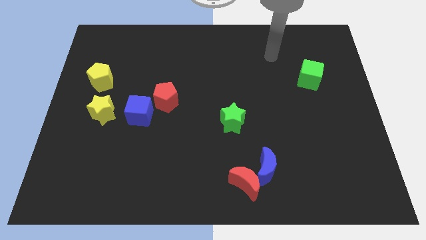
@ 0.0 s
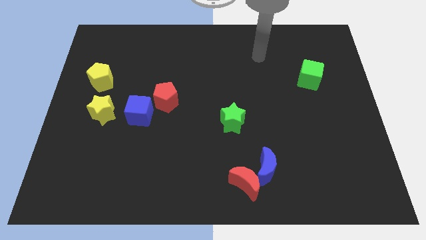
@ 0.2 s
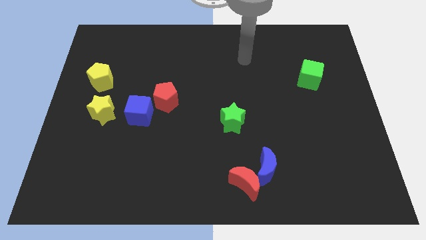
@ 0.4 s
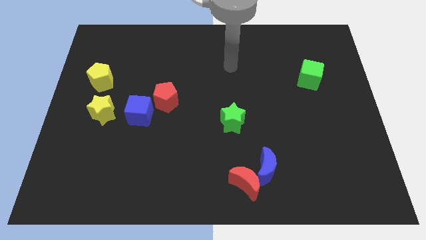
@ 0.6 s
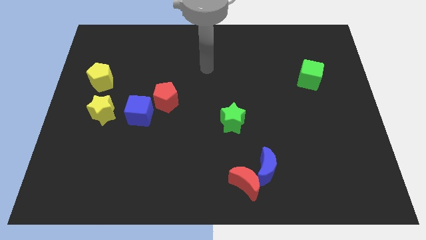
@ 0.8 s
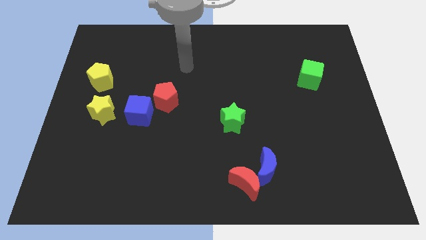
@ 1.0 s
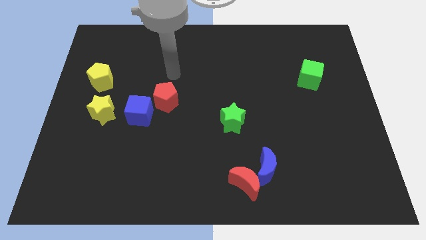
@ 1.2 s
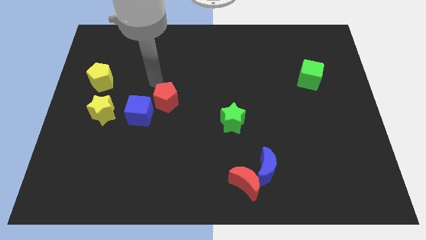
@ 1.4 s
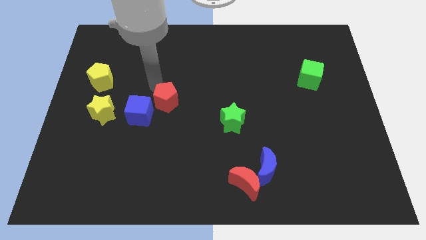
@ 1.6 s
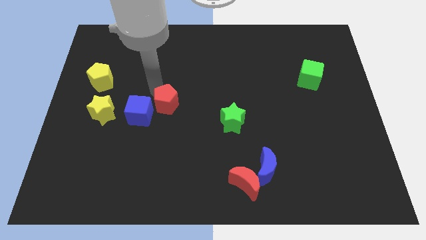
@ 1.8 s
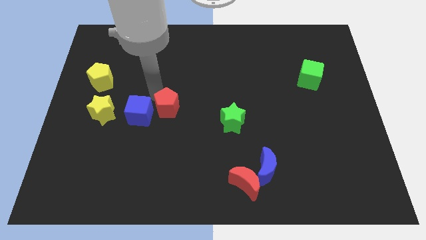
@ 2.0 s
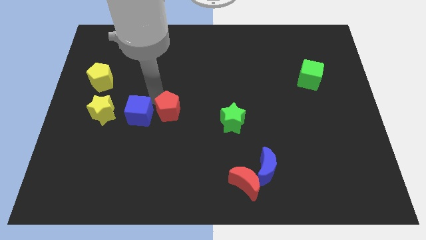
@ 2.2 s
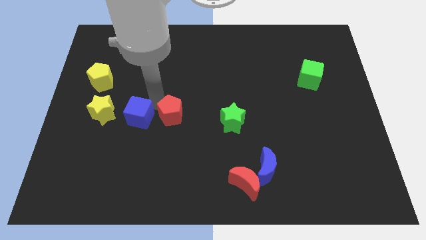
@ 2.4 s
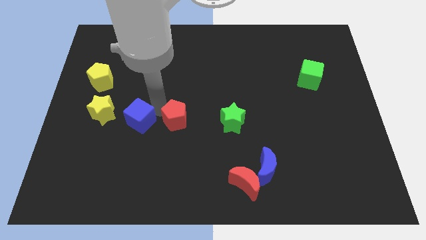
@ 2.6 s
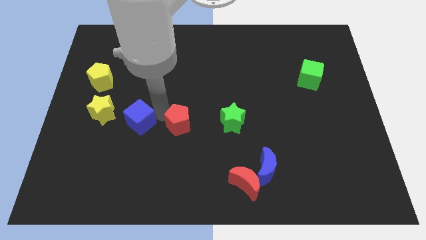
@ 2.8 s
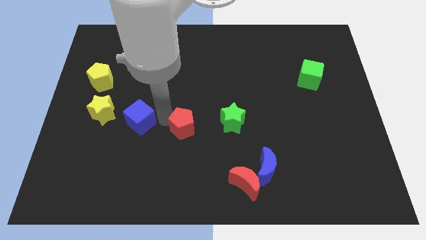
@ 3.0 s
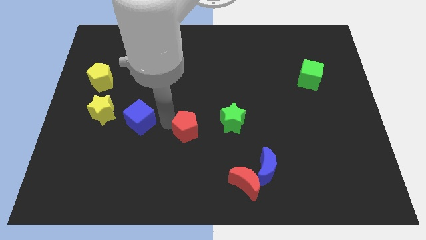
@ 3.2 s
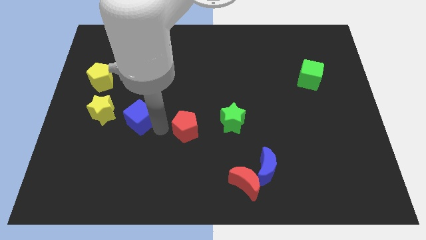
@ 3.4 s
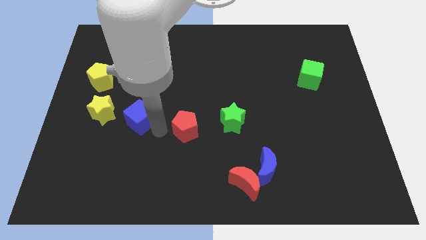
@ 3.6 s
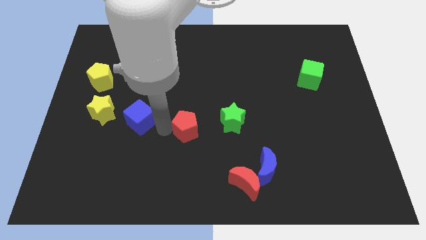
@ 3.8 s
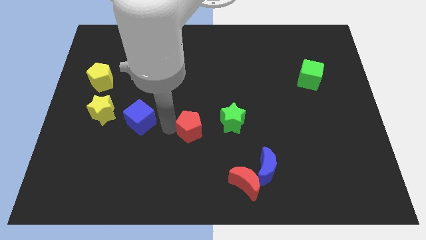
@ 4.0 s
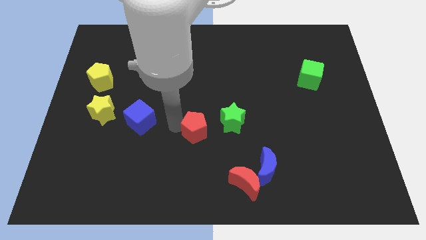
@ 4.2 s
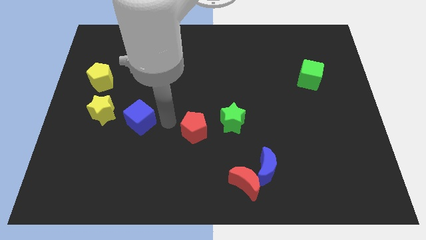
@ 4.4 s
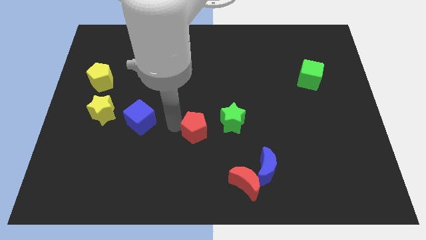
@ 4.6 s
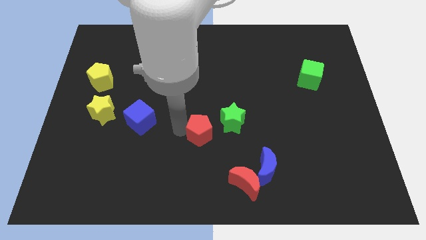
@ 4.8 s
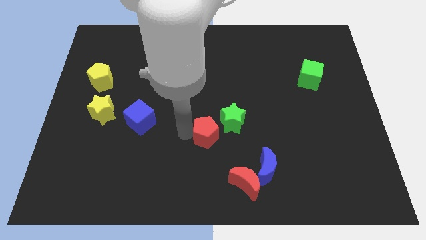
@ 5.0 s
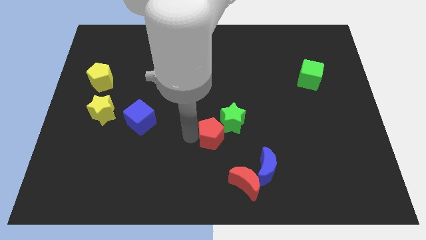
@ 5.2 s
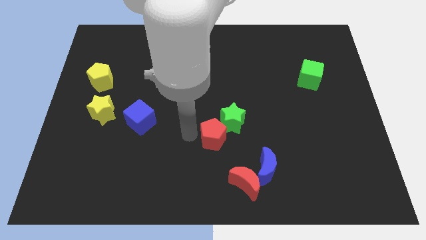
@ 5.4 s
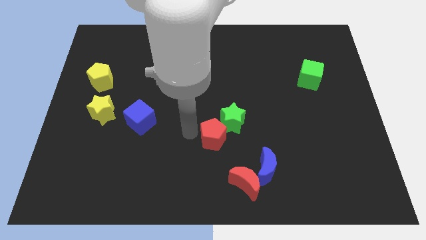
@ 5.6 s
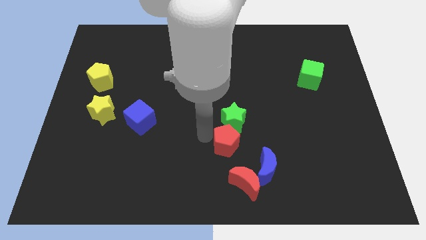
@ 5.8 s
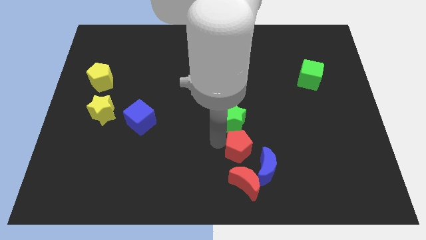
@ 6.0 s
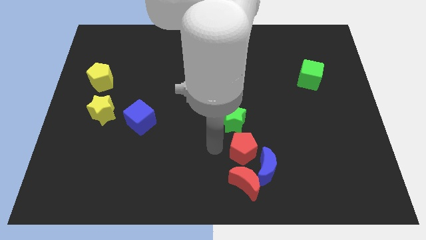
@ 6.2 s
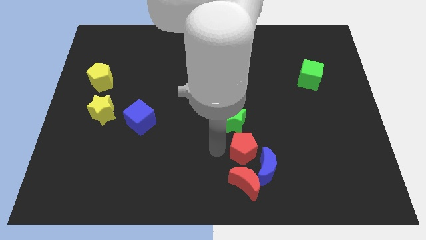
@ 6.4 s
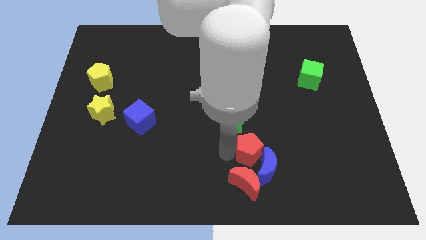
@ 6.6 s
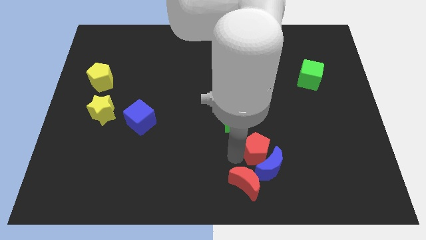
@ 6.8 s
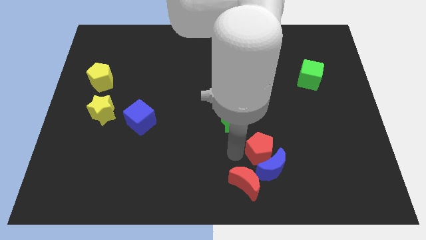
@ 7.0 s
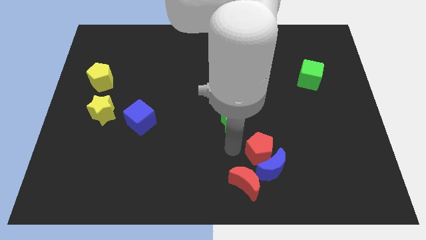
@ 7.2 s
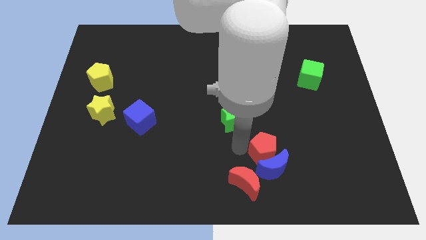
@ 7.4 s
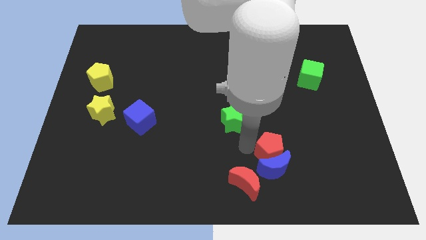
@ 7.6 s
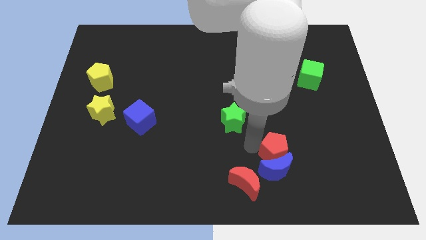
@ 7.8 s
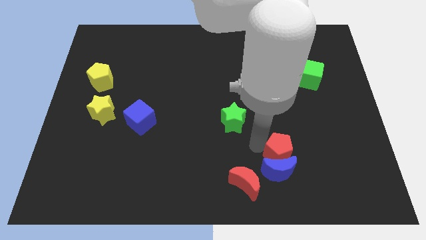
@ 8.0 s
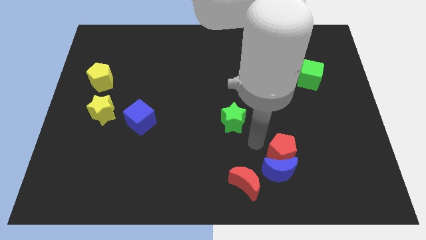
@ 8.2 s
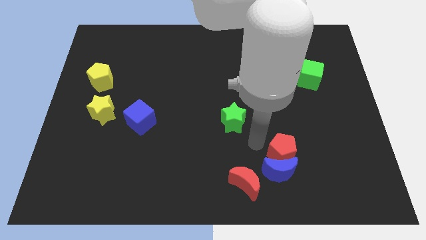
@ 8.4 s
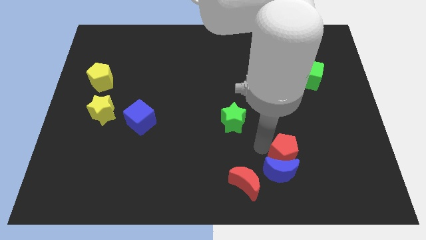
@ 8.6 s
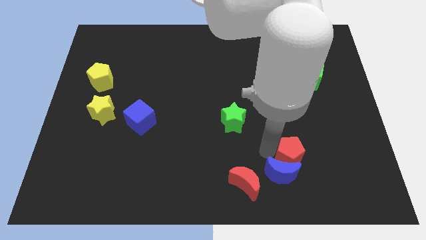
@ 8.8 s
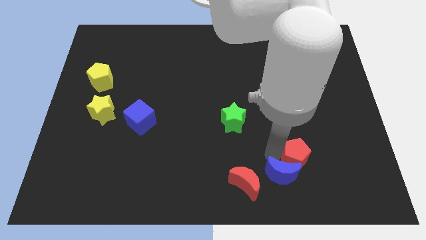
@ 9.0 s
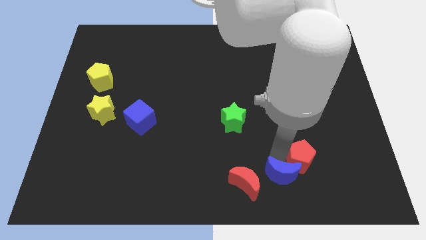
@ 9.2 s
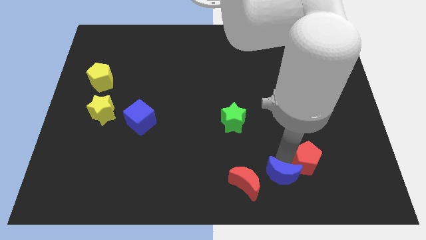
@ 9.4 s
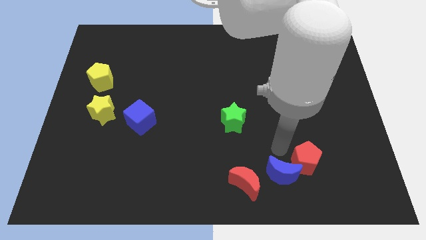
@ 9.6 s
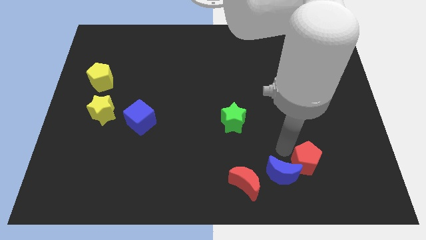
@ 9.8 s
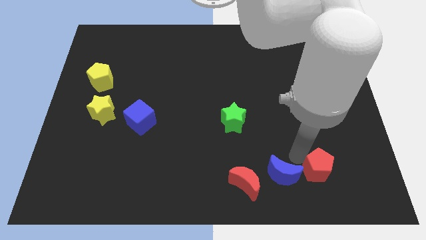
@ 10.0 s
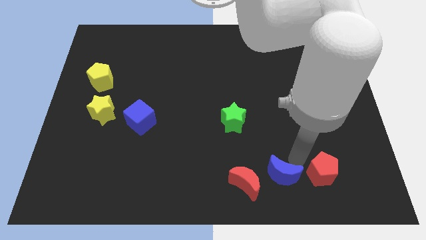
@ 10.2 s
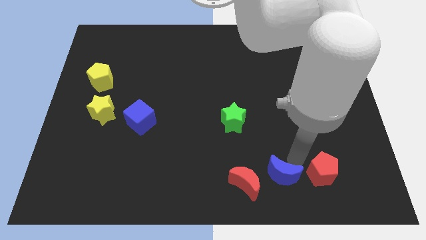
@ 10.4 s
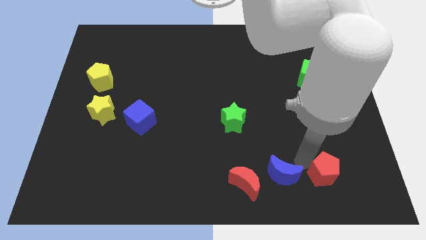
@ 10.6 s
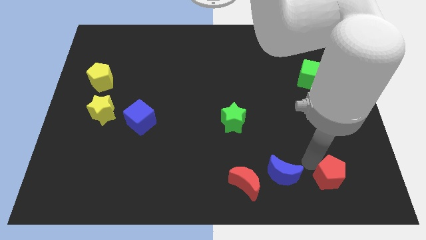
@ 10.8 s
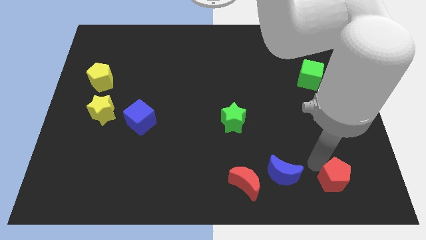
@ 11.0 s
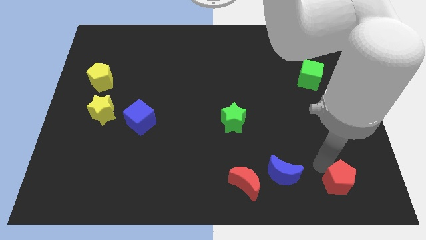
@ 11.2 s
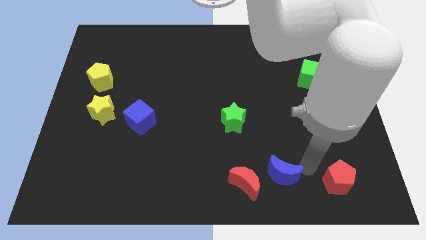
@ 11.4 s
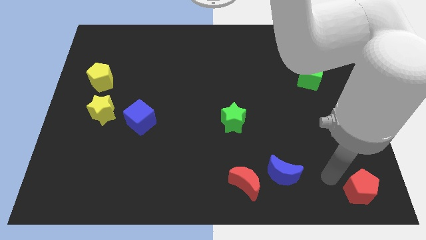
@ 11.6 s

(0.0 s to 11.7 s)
push the red pentagon to the bottom right corner

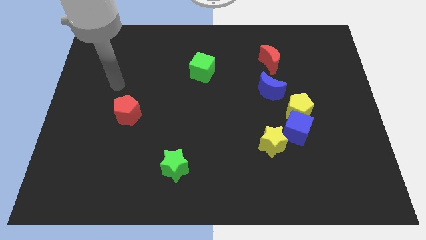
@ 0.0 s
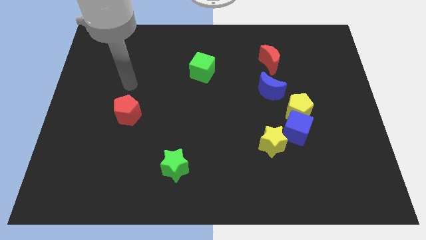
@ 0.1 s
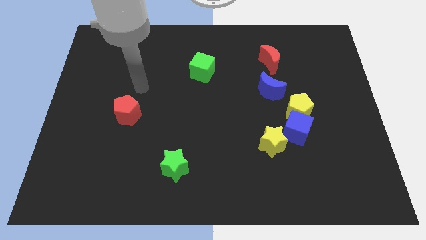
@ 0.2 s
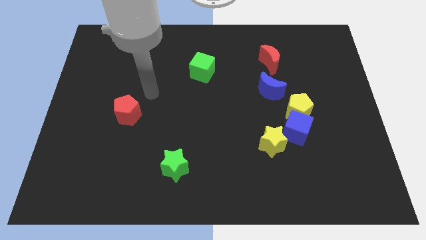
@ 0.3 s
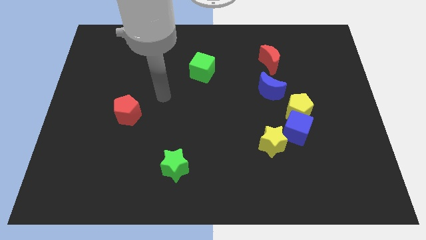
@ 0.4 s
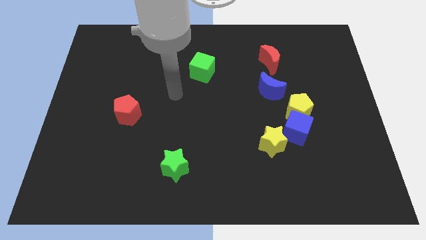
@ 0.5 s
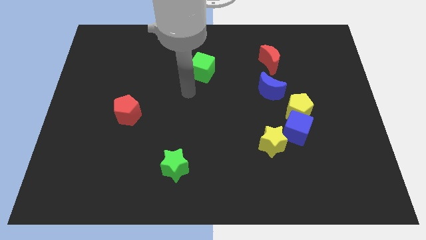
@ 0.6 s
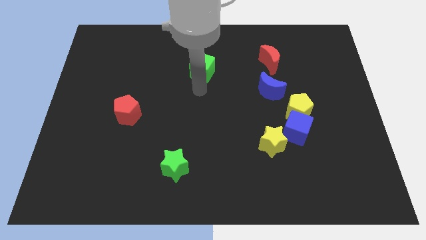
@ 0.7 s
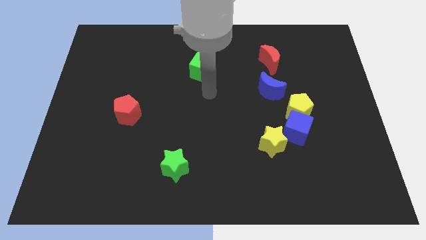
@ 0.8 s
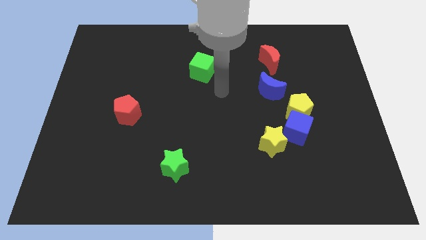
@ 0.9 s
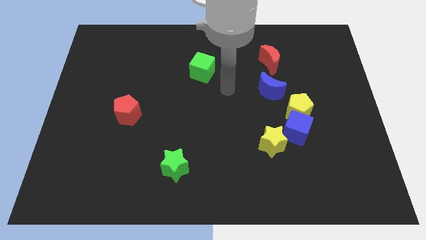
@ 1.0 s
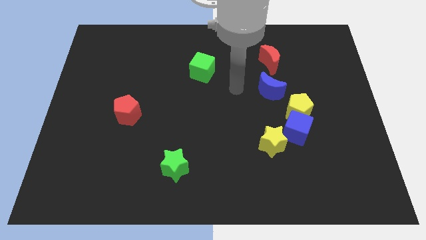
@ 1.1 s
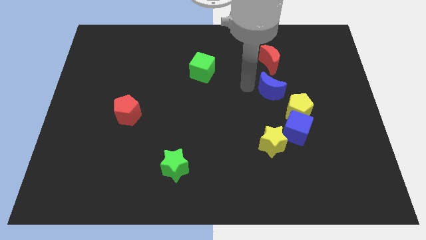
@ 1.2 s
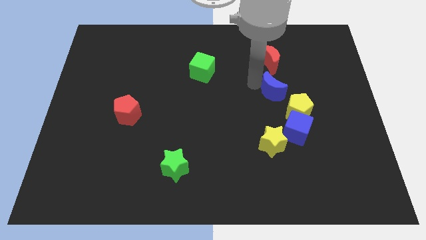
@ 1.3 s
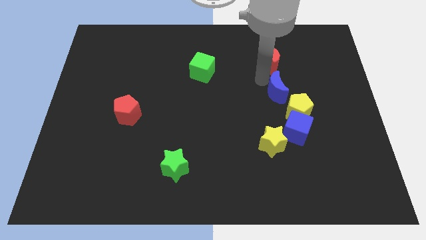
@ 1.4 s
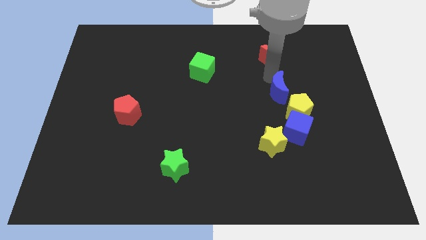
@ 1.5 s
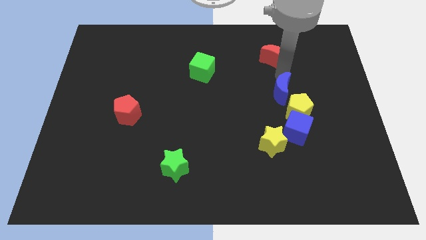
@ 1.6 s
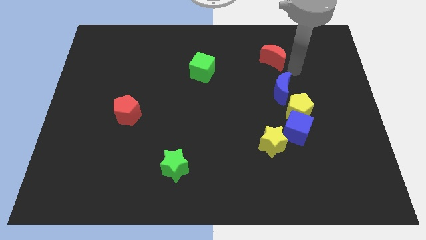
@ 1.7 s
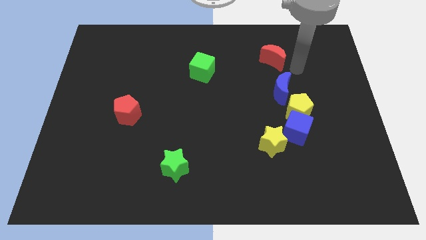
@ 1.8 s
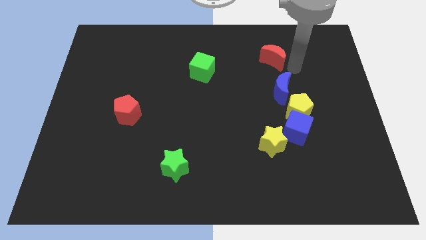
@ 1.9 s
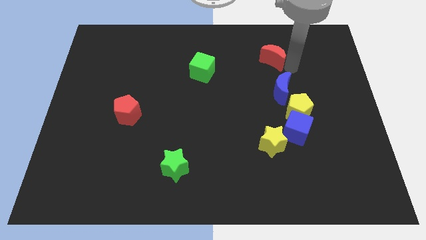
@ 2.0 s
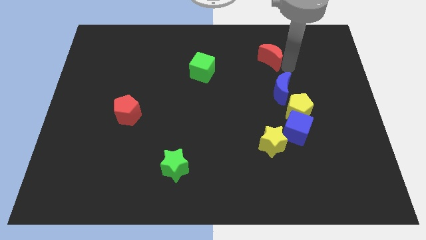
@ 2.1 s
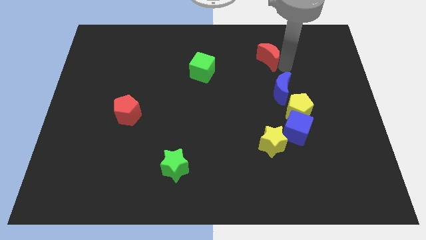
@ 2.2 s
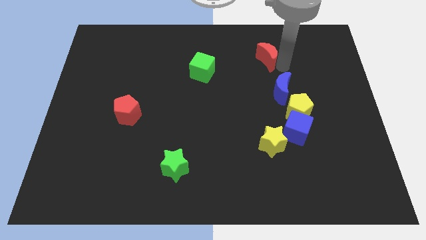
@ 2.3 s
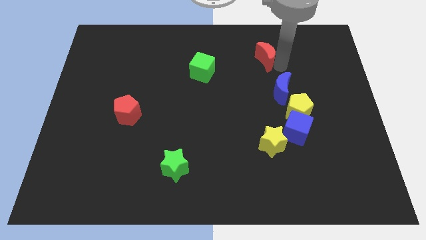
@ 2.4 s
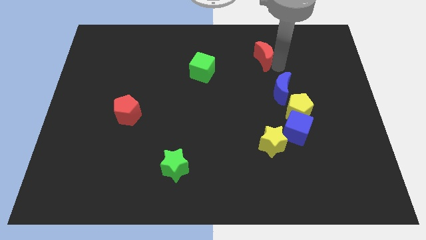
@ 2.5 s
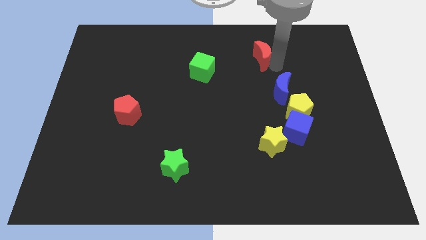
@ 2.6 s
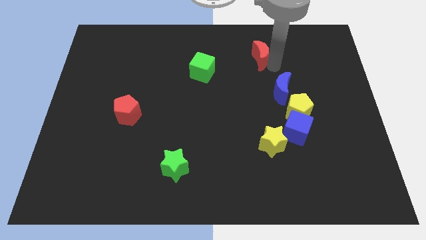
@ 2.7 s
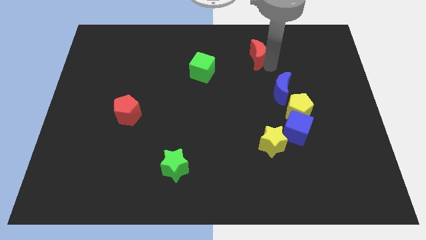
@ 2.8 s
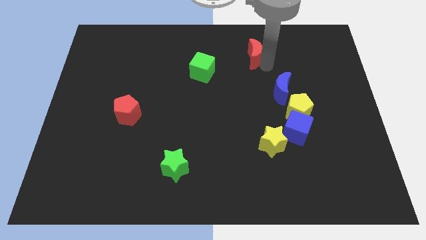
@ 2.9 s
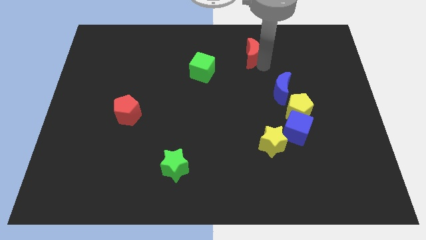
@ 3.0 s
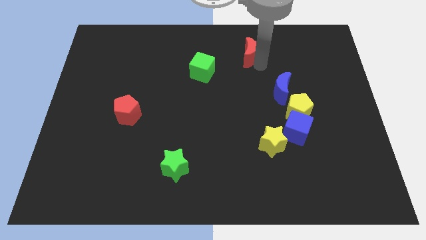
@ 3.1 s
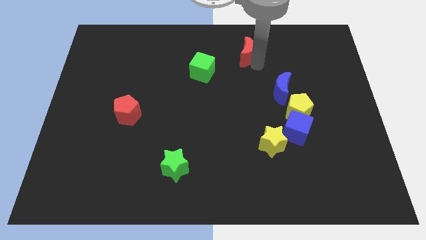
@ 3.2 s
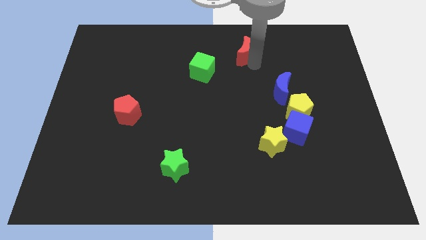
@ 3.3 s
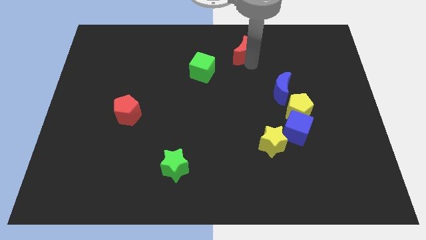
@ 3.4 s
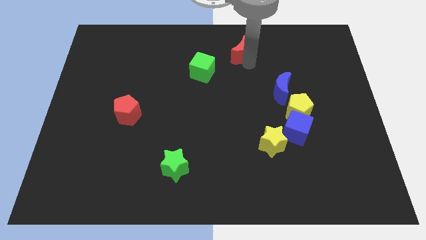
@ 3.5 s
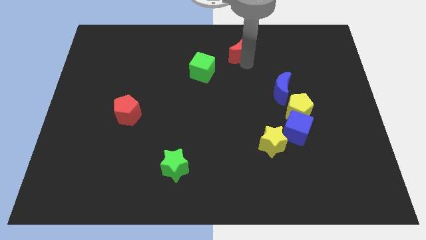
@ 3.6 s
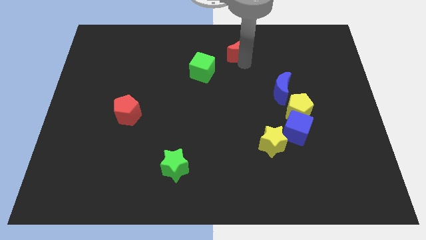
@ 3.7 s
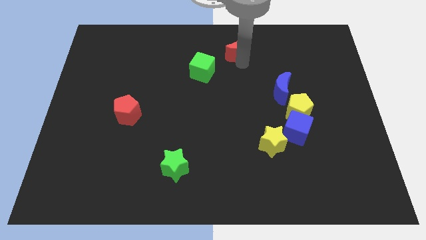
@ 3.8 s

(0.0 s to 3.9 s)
slide the red moon to the towards your base
